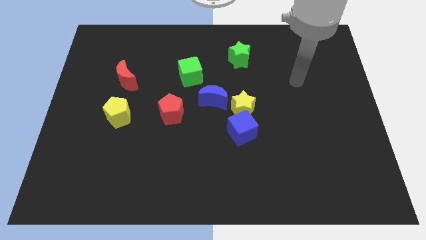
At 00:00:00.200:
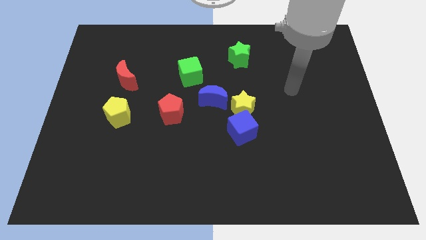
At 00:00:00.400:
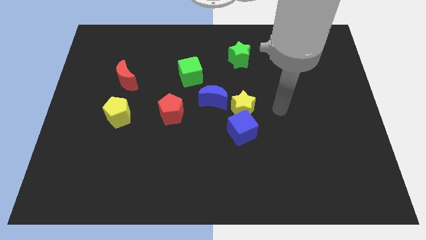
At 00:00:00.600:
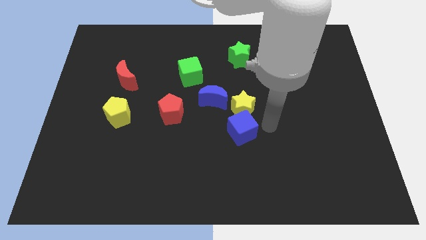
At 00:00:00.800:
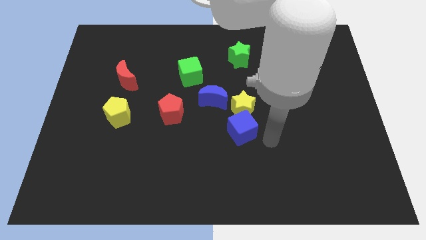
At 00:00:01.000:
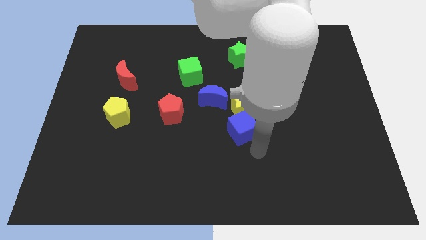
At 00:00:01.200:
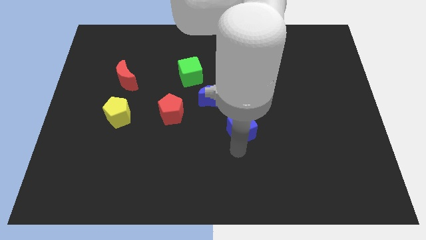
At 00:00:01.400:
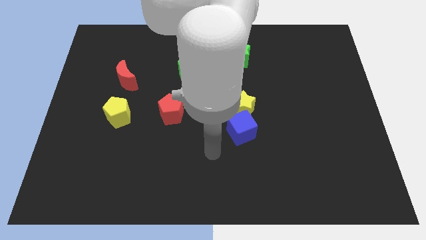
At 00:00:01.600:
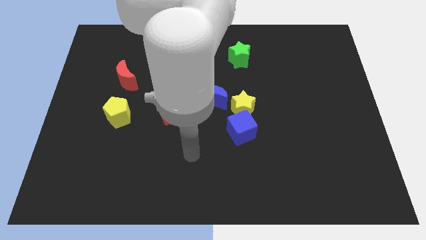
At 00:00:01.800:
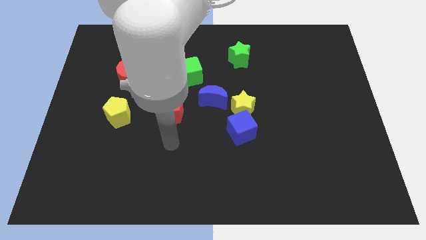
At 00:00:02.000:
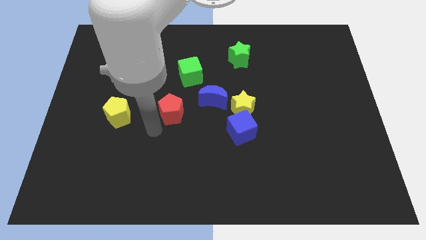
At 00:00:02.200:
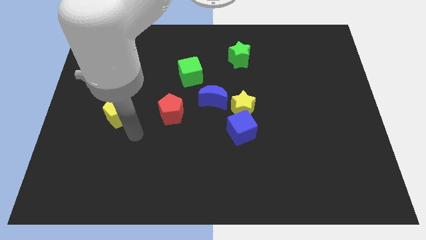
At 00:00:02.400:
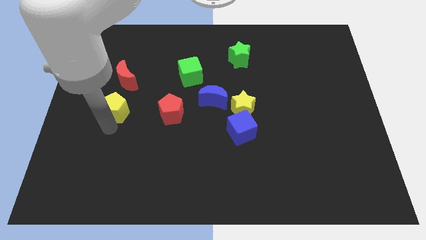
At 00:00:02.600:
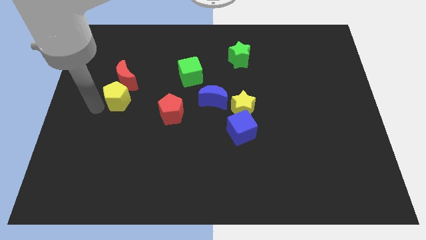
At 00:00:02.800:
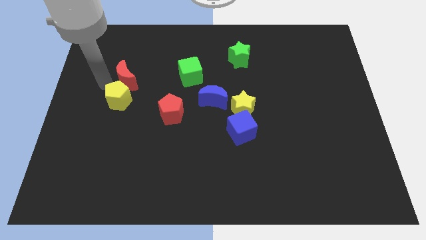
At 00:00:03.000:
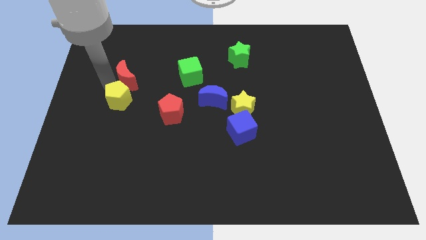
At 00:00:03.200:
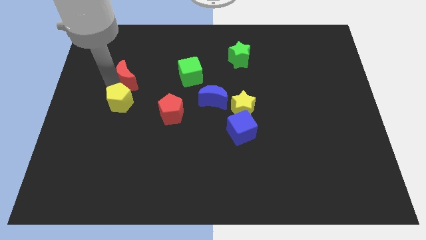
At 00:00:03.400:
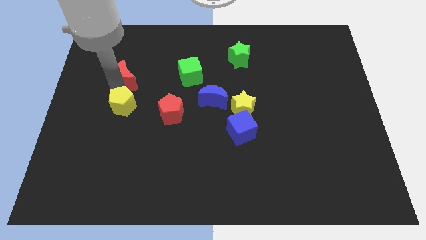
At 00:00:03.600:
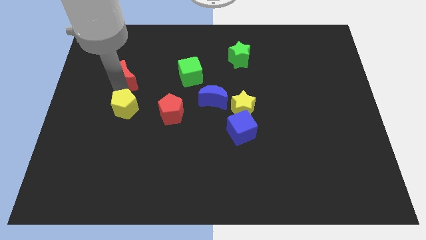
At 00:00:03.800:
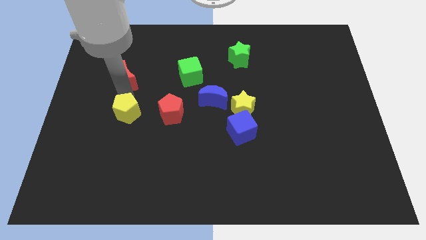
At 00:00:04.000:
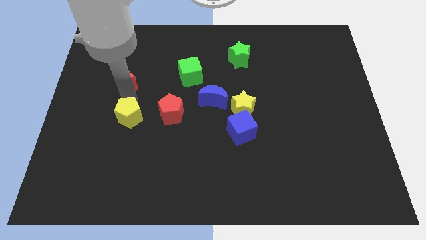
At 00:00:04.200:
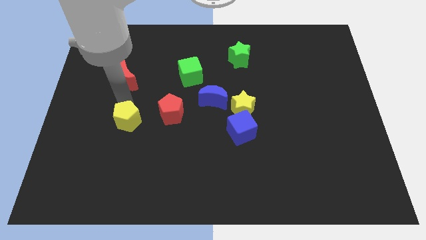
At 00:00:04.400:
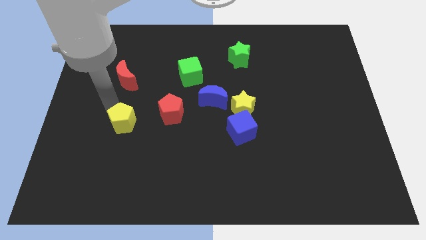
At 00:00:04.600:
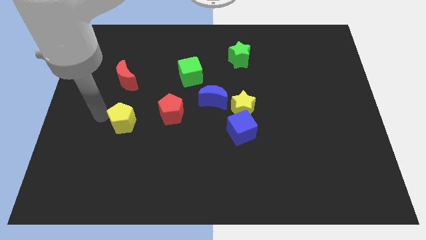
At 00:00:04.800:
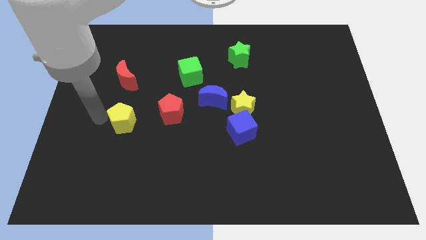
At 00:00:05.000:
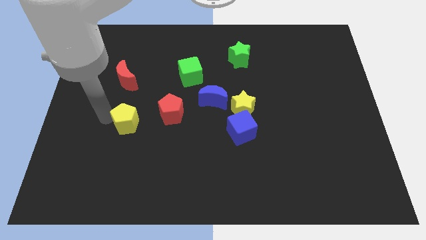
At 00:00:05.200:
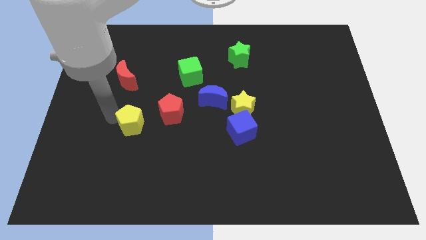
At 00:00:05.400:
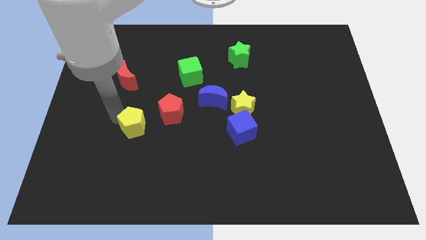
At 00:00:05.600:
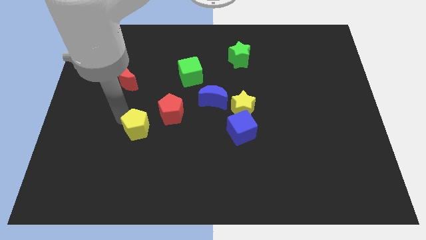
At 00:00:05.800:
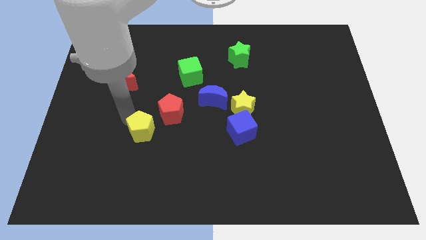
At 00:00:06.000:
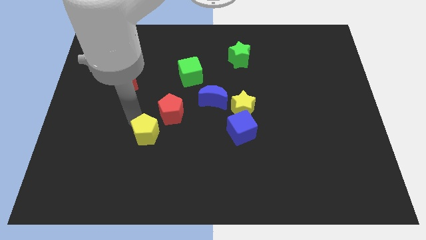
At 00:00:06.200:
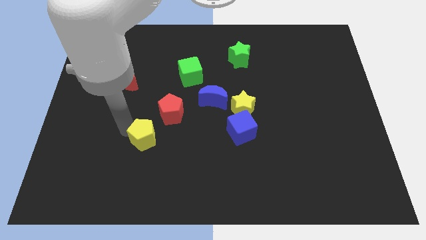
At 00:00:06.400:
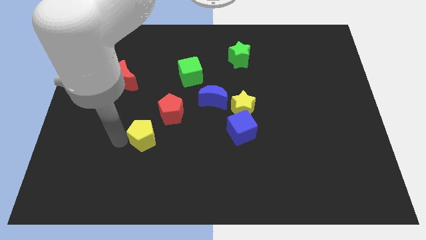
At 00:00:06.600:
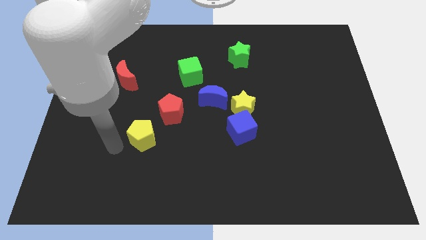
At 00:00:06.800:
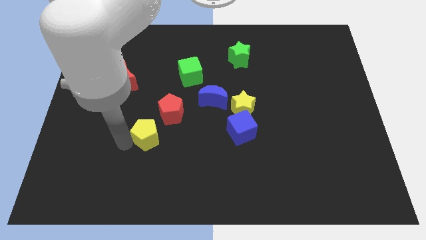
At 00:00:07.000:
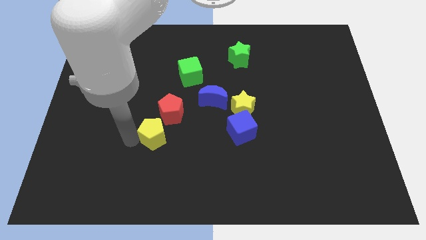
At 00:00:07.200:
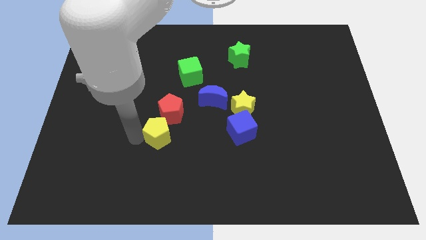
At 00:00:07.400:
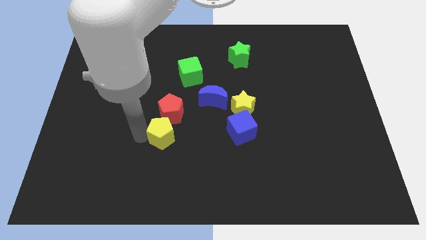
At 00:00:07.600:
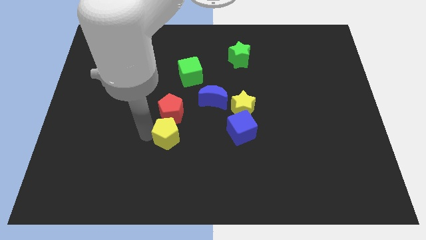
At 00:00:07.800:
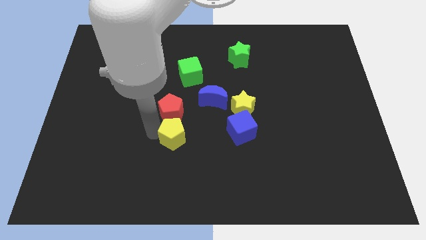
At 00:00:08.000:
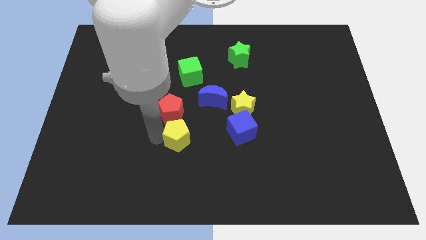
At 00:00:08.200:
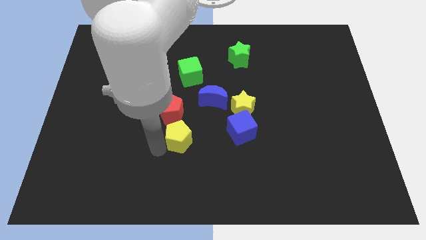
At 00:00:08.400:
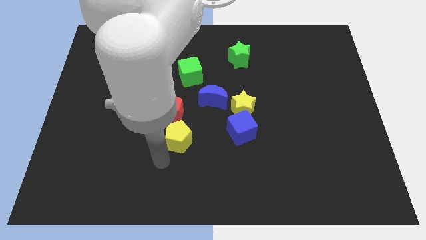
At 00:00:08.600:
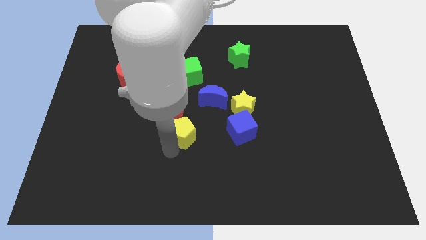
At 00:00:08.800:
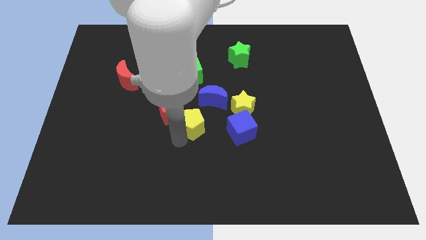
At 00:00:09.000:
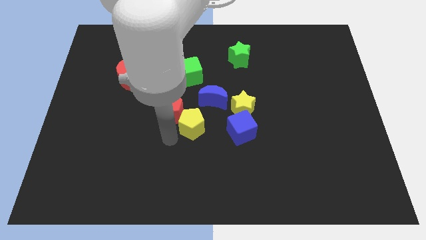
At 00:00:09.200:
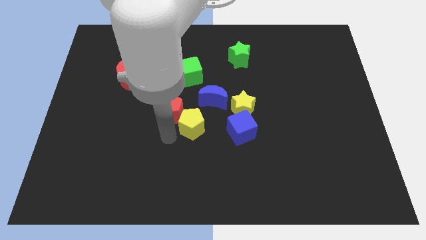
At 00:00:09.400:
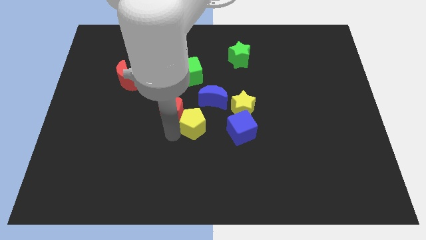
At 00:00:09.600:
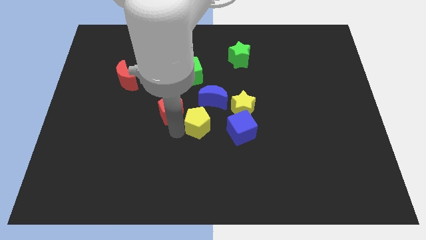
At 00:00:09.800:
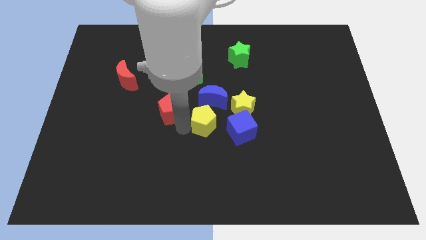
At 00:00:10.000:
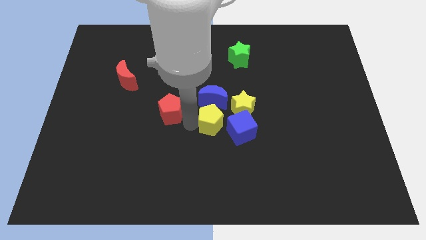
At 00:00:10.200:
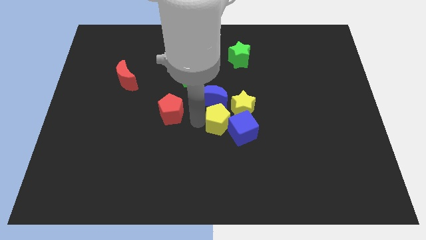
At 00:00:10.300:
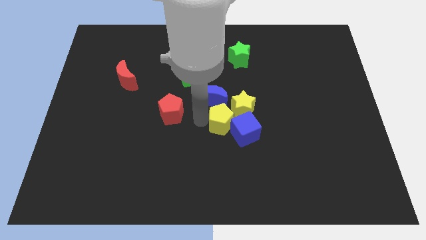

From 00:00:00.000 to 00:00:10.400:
slide the yellow pentagon close to the yellow star

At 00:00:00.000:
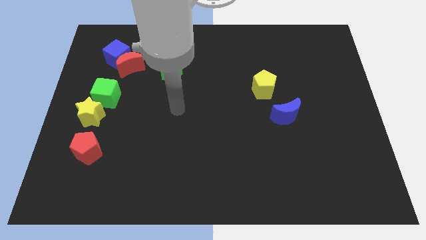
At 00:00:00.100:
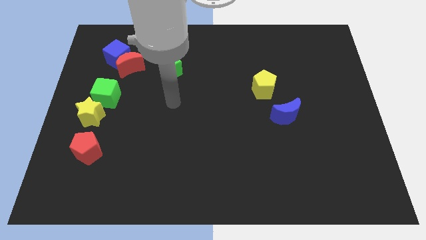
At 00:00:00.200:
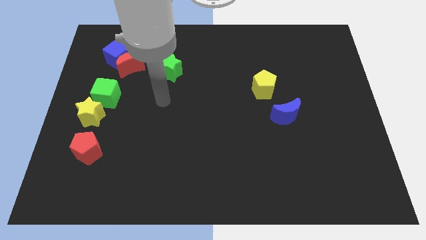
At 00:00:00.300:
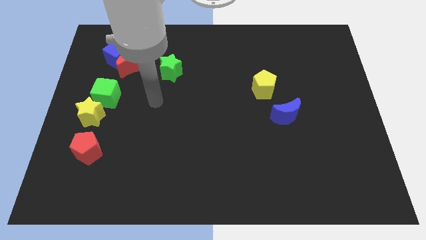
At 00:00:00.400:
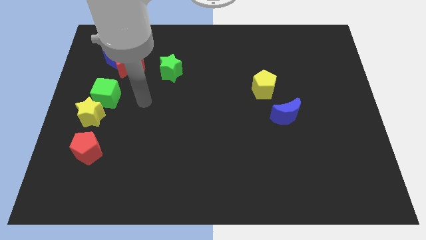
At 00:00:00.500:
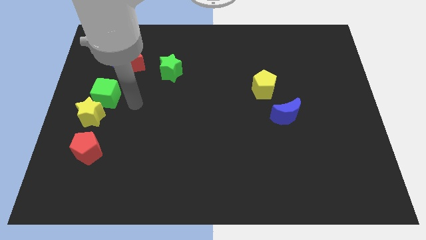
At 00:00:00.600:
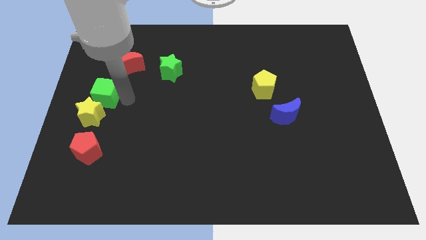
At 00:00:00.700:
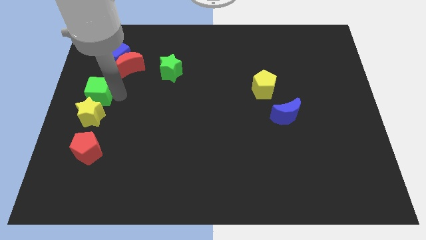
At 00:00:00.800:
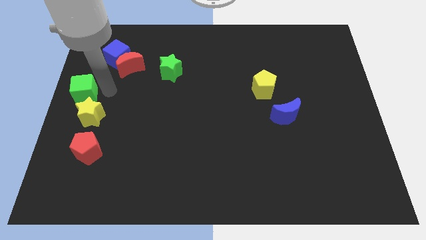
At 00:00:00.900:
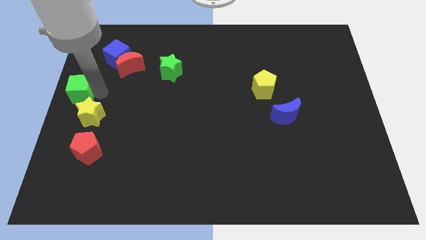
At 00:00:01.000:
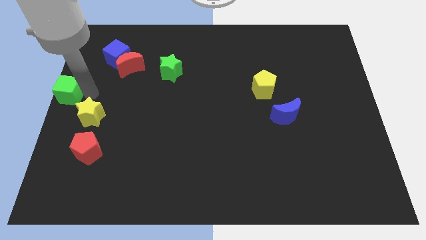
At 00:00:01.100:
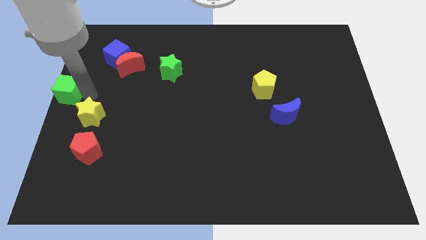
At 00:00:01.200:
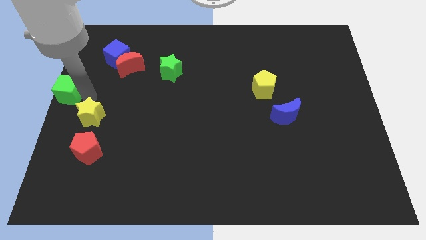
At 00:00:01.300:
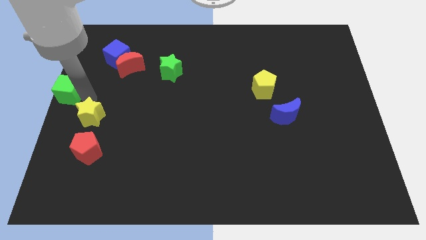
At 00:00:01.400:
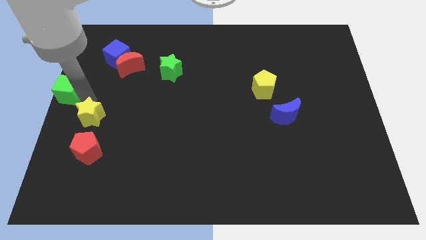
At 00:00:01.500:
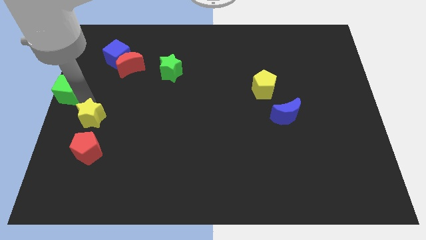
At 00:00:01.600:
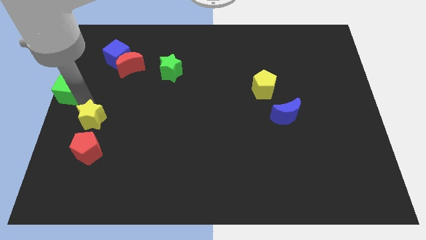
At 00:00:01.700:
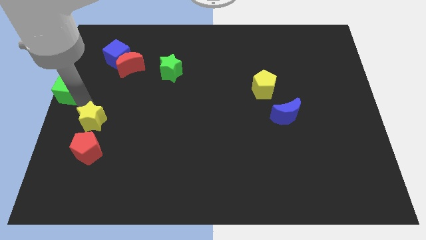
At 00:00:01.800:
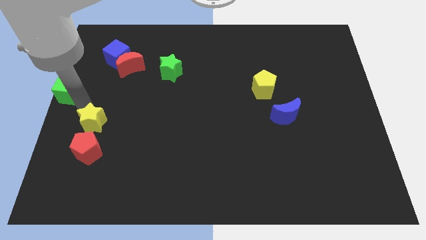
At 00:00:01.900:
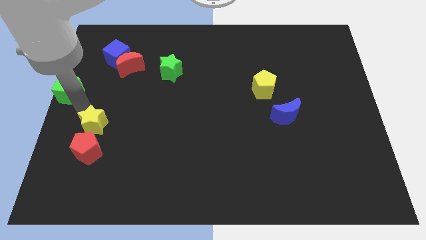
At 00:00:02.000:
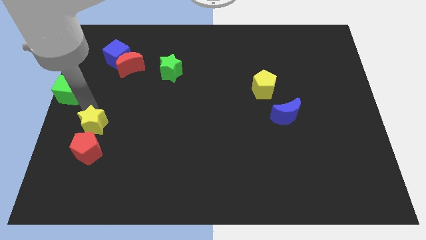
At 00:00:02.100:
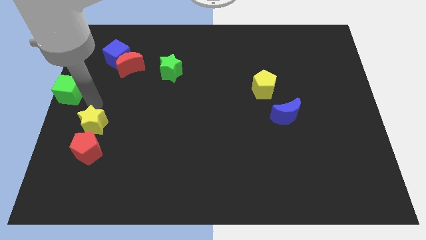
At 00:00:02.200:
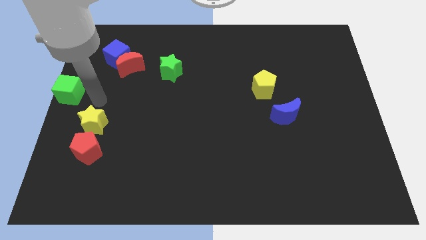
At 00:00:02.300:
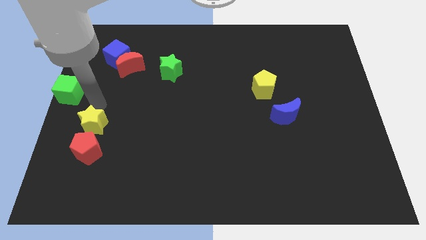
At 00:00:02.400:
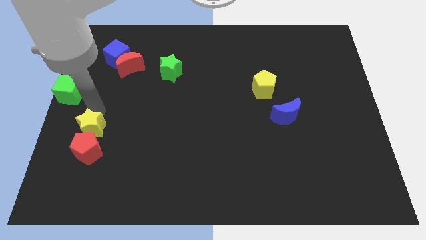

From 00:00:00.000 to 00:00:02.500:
move the yellow star next to the red pentagon
